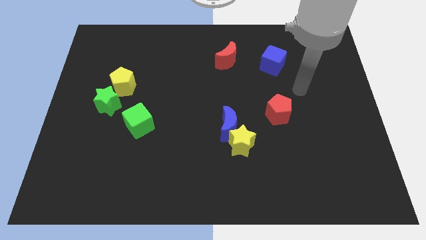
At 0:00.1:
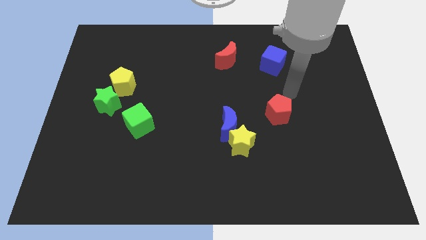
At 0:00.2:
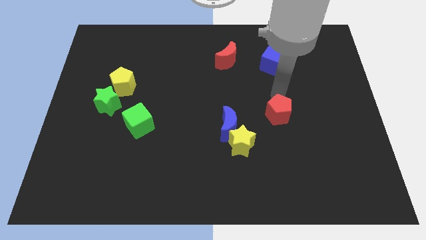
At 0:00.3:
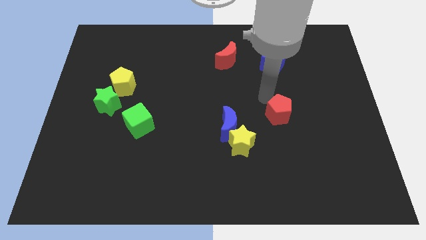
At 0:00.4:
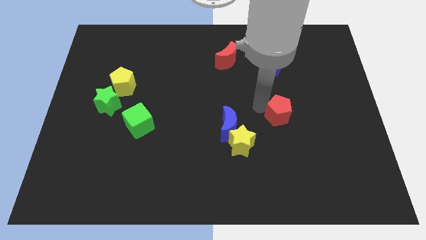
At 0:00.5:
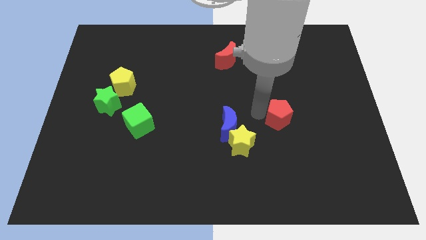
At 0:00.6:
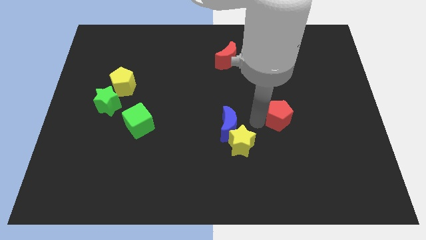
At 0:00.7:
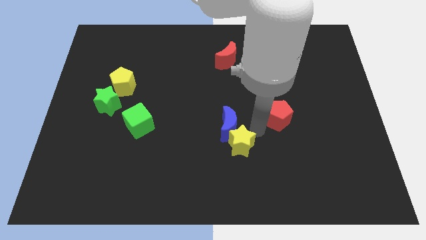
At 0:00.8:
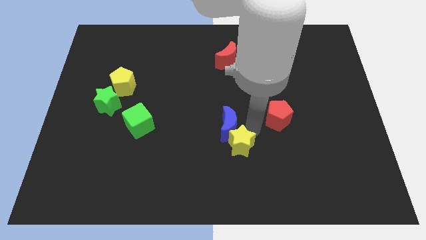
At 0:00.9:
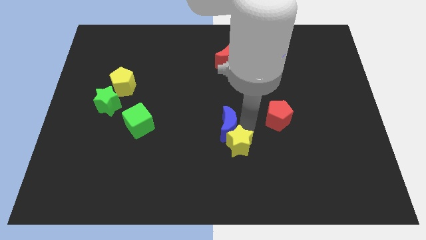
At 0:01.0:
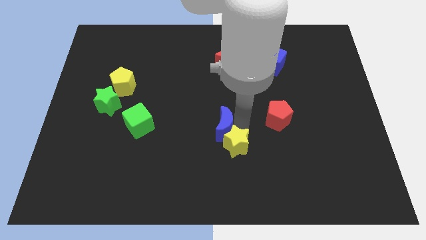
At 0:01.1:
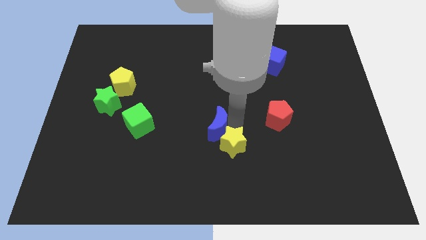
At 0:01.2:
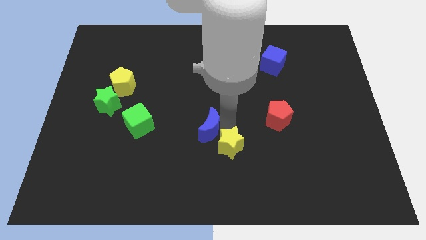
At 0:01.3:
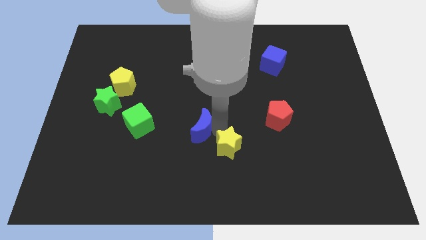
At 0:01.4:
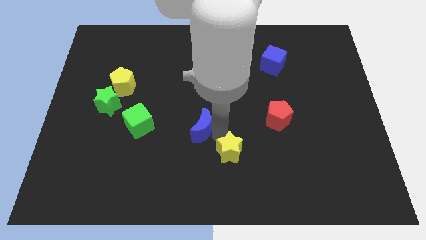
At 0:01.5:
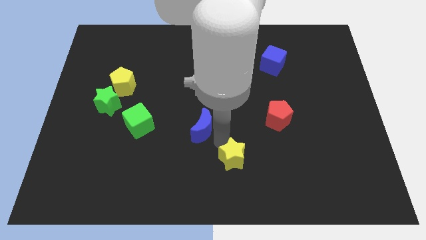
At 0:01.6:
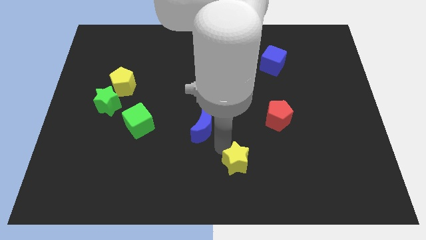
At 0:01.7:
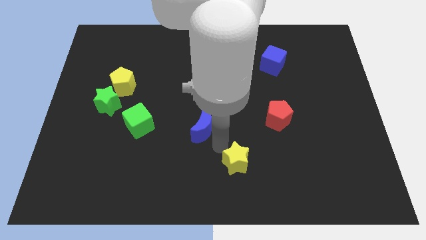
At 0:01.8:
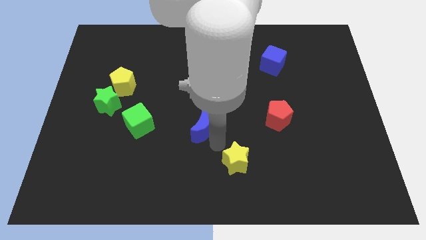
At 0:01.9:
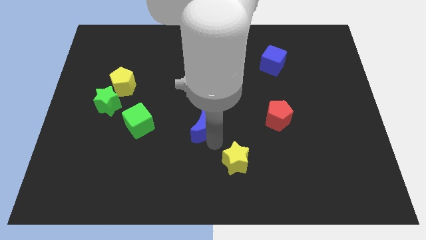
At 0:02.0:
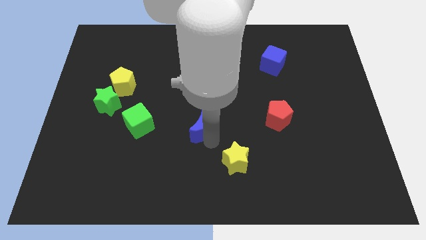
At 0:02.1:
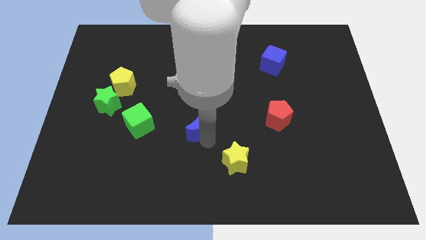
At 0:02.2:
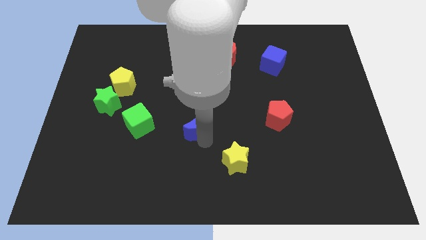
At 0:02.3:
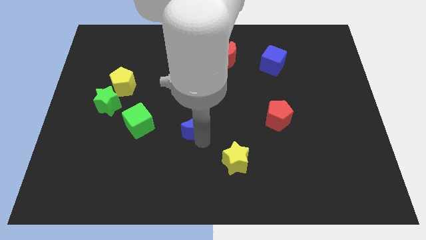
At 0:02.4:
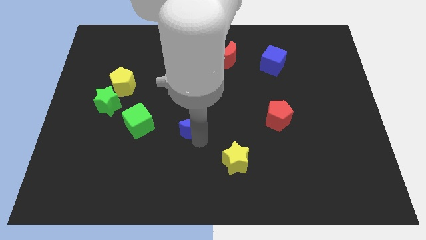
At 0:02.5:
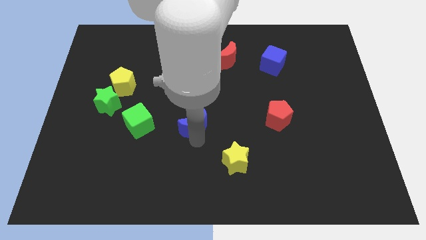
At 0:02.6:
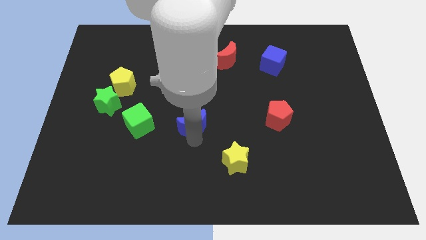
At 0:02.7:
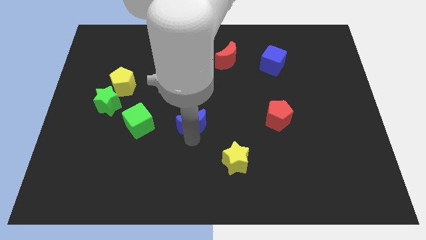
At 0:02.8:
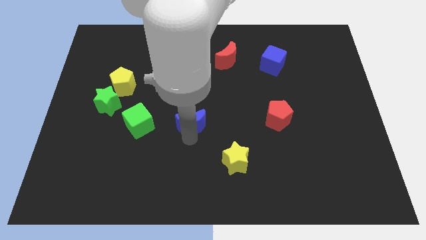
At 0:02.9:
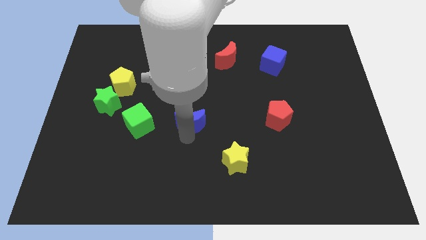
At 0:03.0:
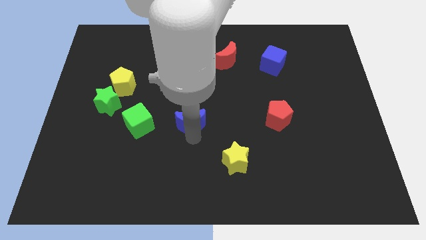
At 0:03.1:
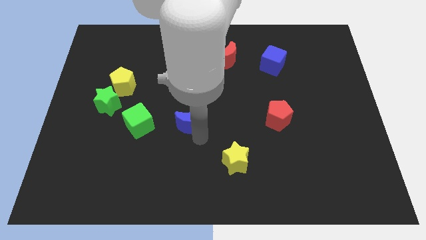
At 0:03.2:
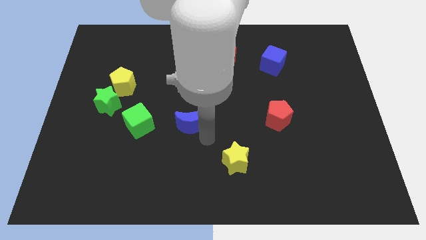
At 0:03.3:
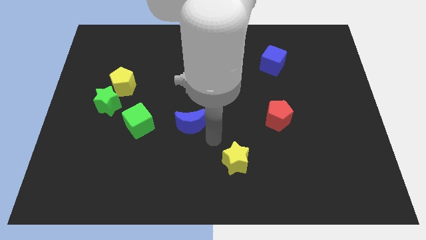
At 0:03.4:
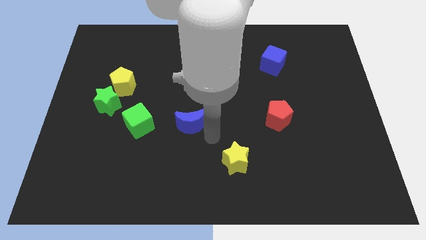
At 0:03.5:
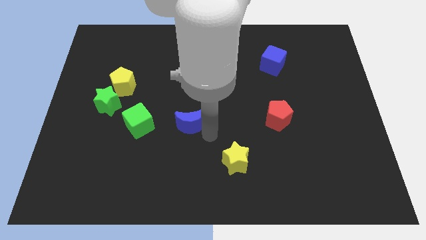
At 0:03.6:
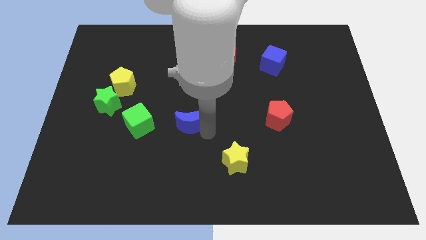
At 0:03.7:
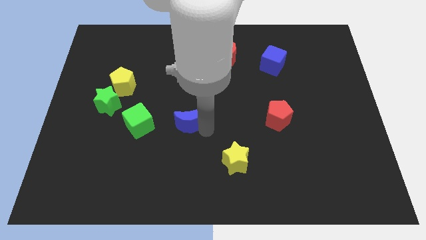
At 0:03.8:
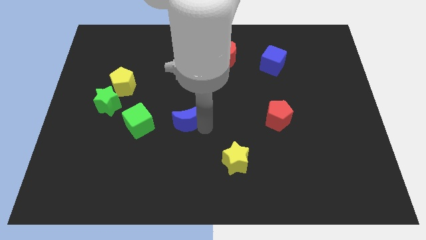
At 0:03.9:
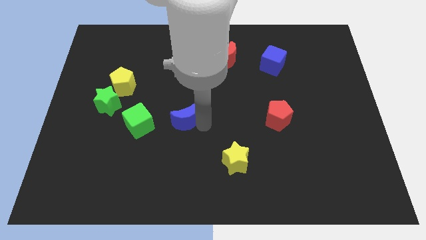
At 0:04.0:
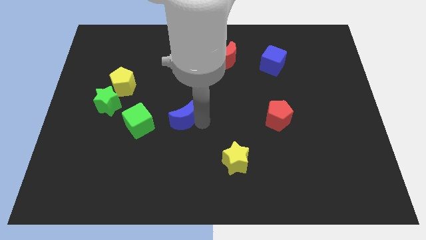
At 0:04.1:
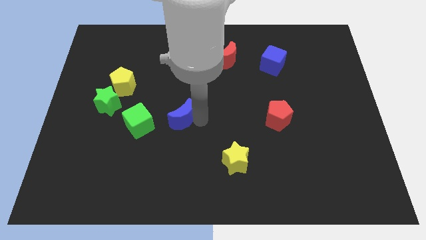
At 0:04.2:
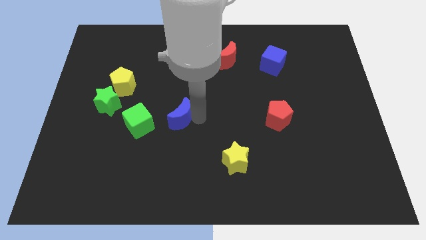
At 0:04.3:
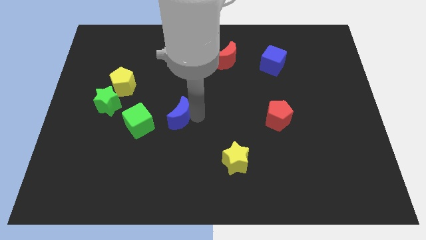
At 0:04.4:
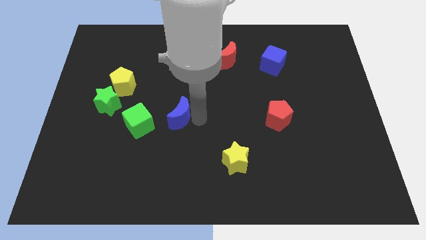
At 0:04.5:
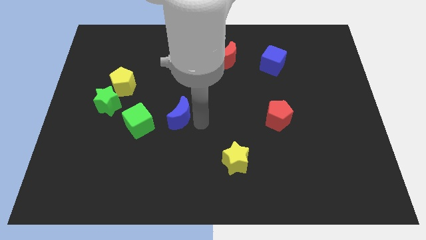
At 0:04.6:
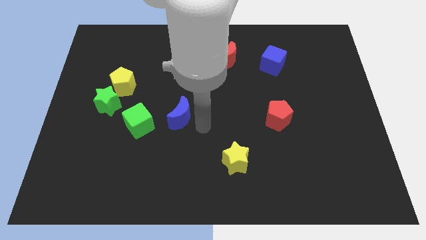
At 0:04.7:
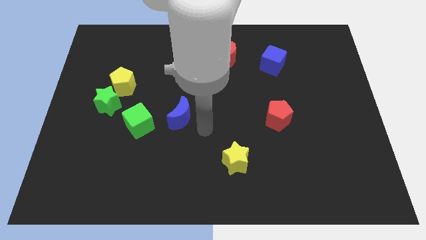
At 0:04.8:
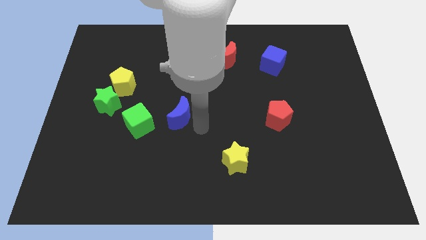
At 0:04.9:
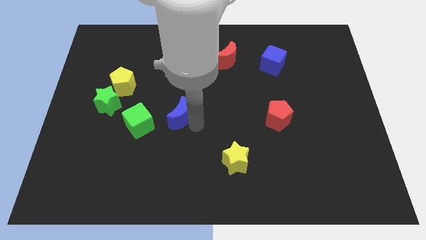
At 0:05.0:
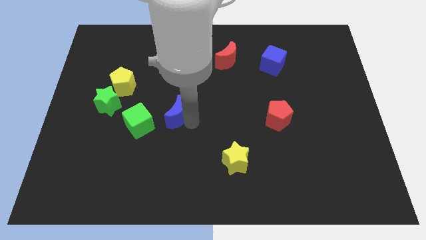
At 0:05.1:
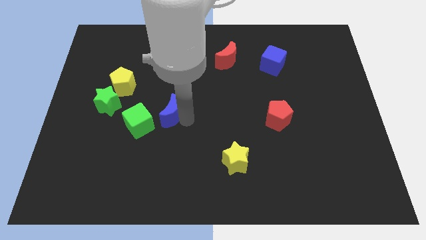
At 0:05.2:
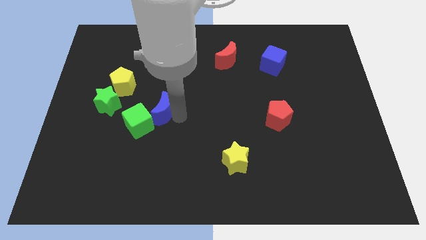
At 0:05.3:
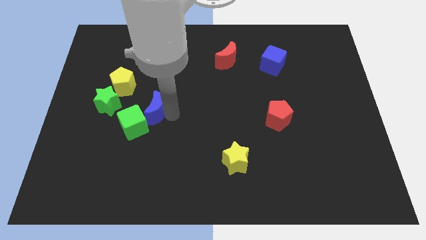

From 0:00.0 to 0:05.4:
push the blue moon to the bottom right side of the yellow pentagon

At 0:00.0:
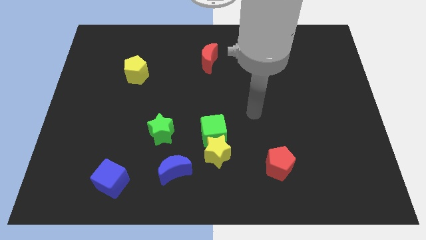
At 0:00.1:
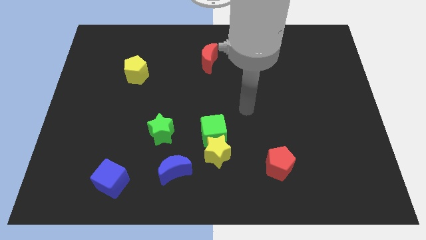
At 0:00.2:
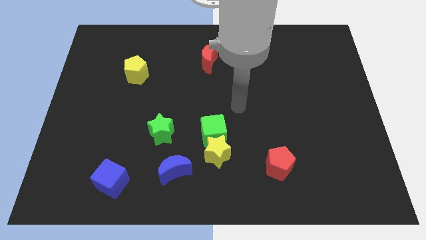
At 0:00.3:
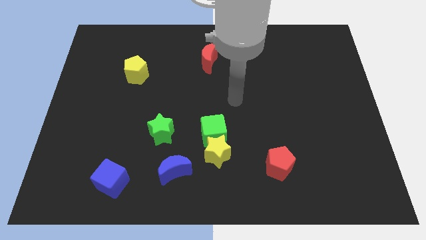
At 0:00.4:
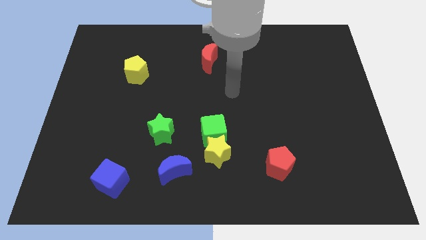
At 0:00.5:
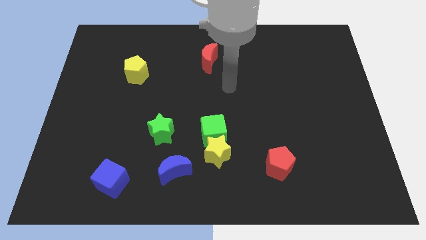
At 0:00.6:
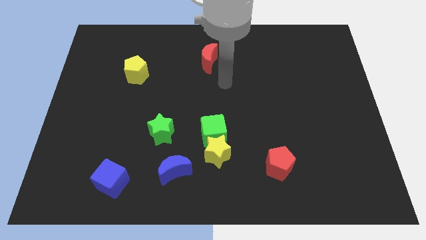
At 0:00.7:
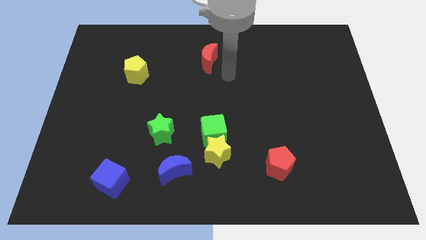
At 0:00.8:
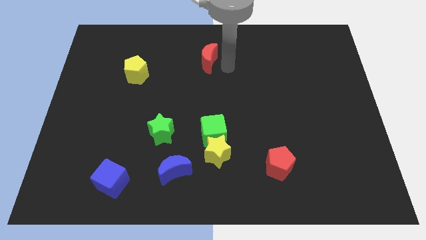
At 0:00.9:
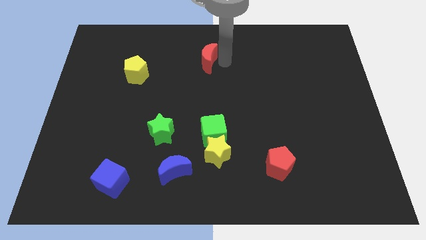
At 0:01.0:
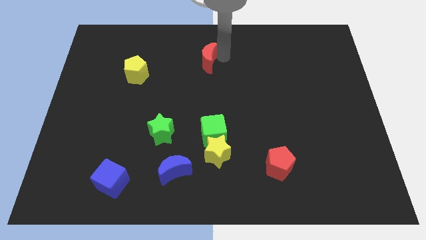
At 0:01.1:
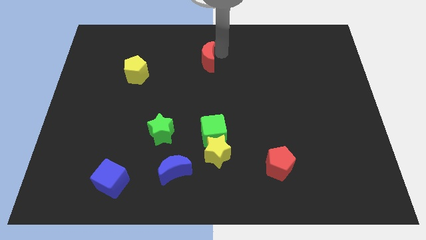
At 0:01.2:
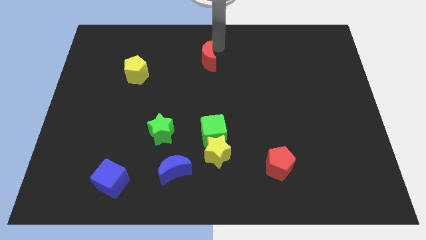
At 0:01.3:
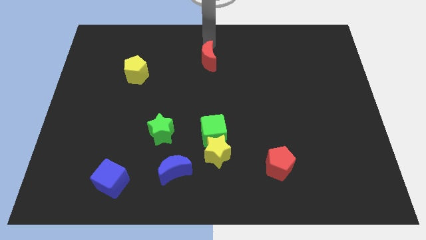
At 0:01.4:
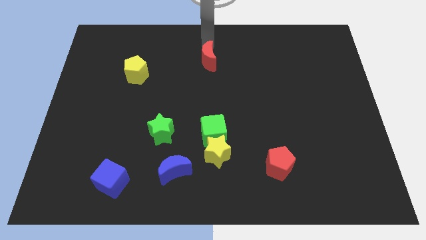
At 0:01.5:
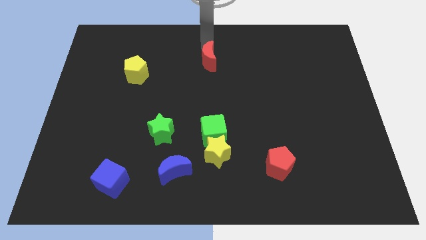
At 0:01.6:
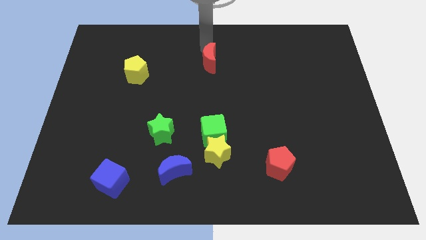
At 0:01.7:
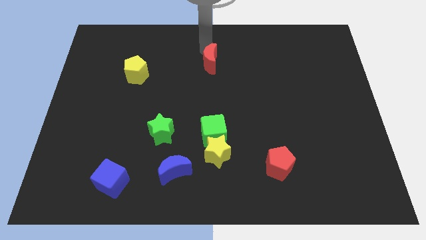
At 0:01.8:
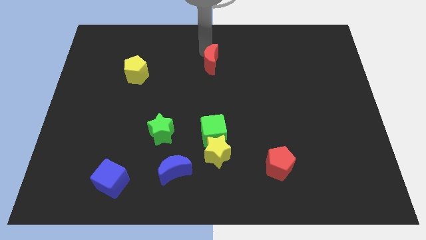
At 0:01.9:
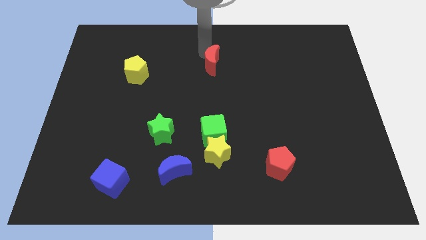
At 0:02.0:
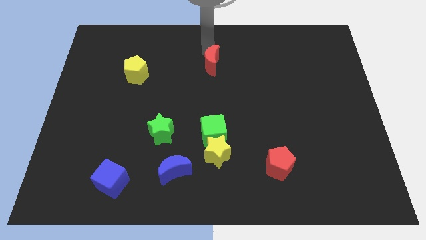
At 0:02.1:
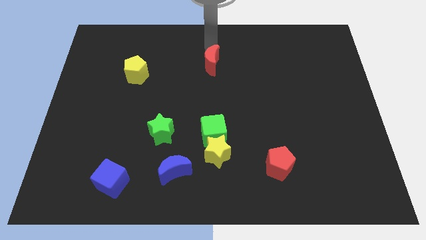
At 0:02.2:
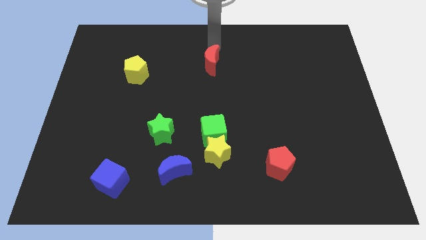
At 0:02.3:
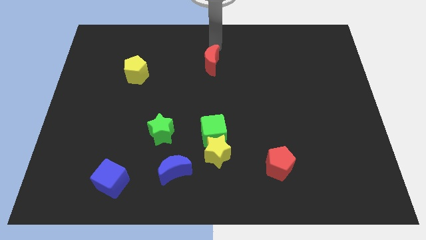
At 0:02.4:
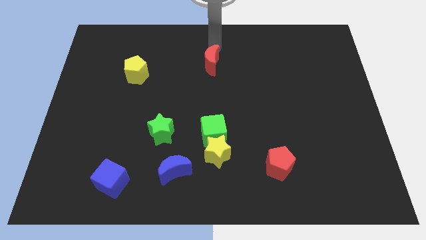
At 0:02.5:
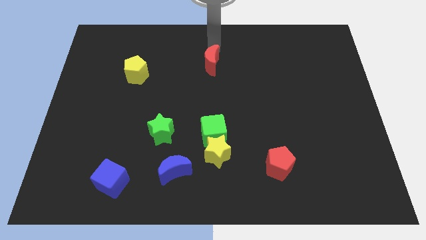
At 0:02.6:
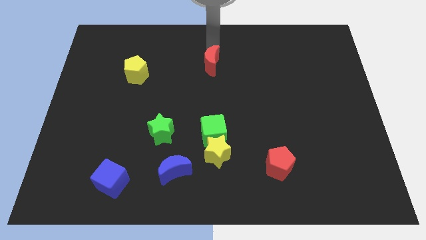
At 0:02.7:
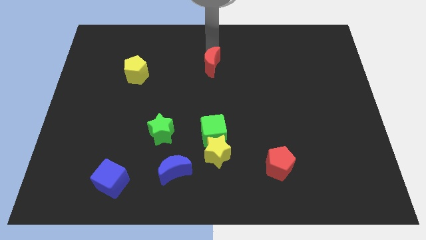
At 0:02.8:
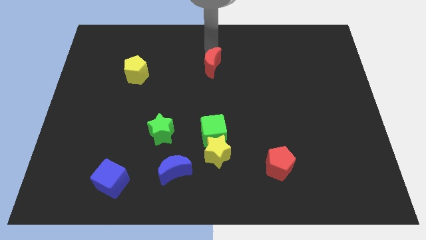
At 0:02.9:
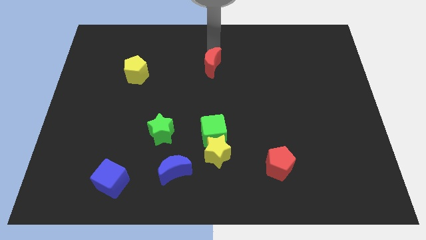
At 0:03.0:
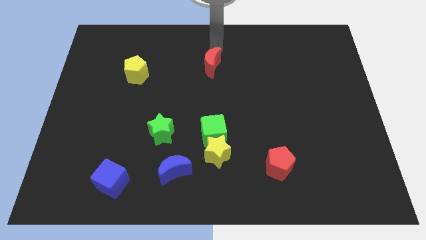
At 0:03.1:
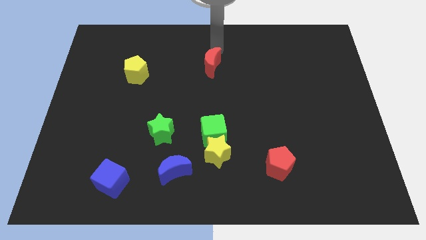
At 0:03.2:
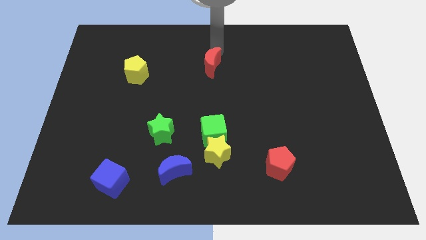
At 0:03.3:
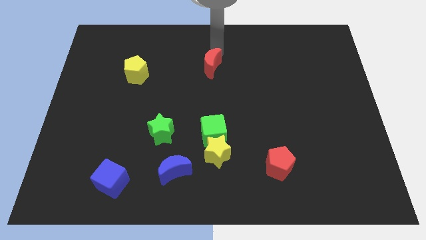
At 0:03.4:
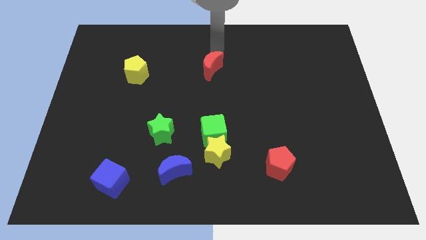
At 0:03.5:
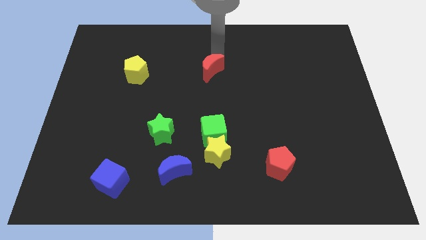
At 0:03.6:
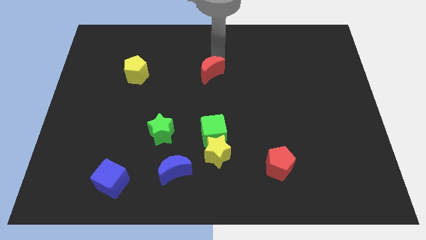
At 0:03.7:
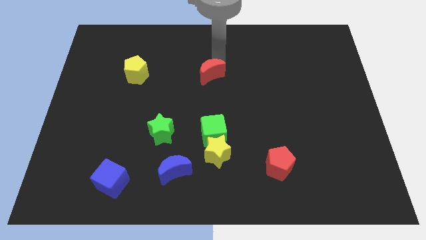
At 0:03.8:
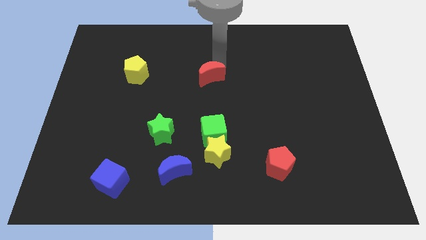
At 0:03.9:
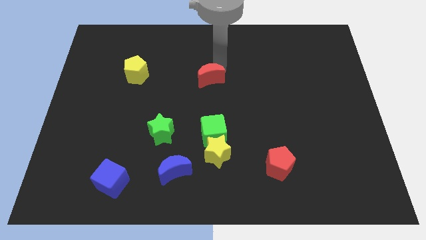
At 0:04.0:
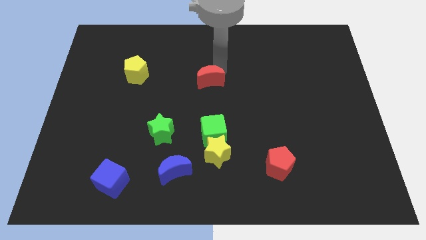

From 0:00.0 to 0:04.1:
move the red moon above the green cube
